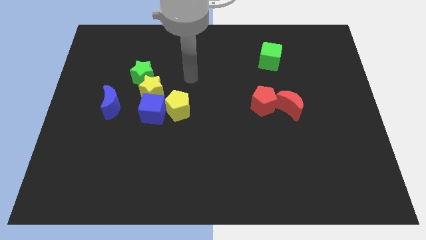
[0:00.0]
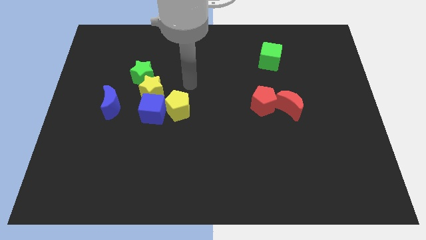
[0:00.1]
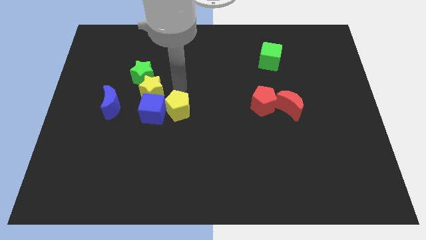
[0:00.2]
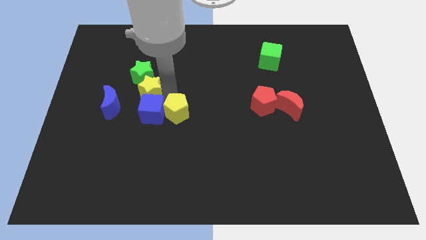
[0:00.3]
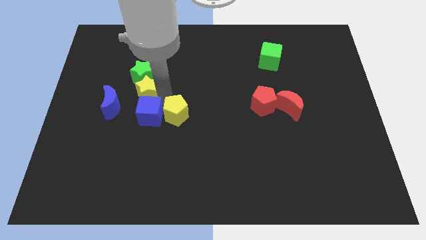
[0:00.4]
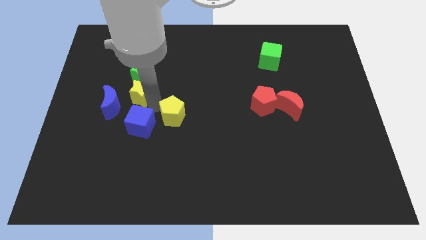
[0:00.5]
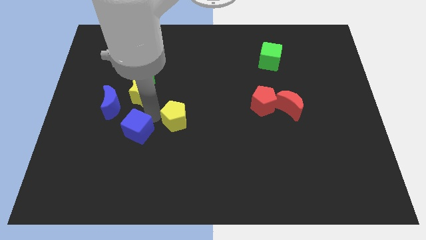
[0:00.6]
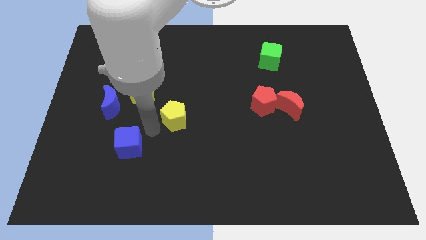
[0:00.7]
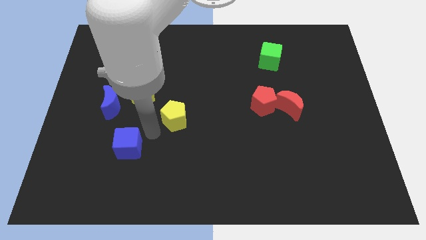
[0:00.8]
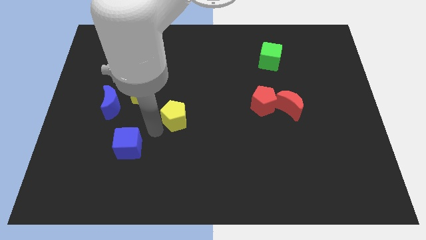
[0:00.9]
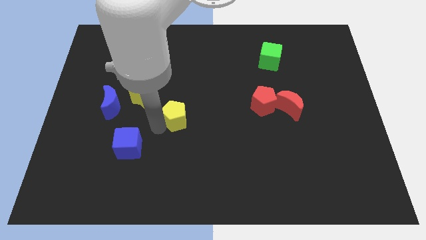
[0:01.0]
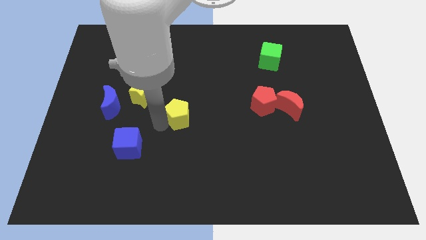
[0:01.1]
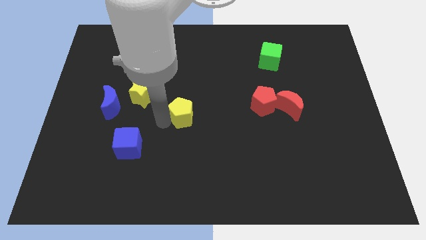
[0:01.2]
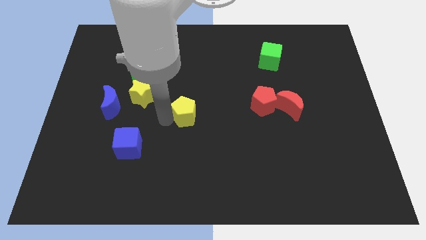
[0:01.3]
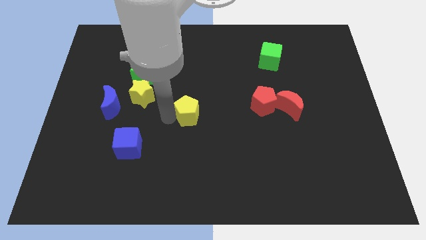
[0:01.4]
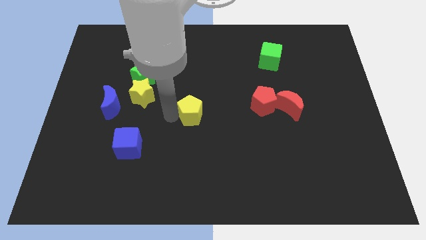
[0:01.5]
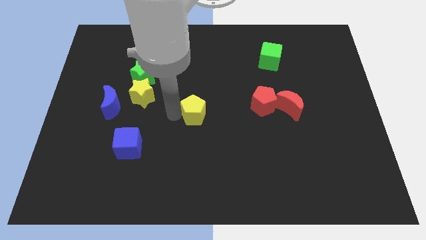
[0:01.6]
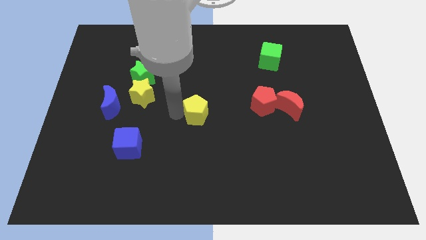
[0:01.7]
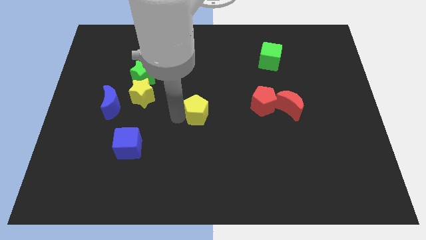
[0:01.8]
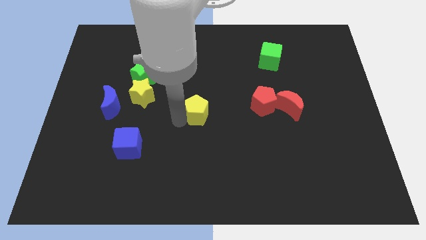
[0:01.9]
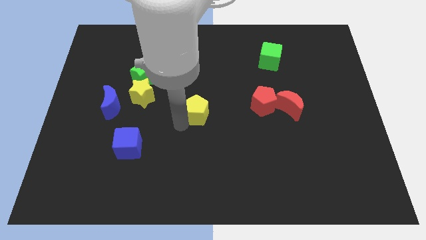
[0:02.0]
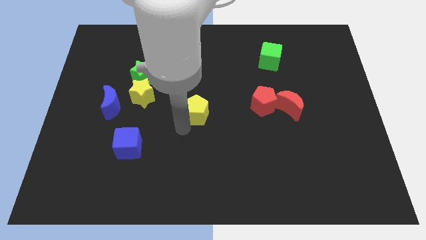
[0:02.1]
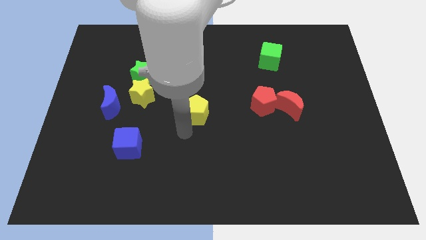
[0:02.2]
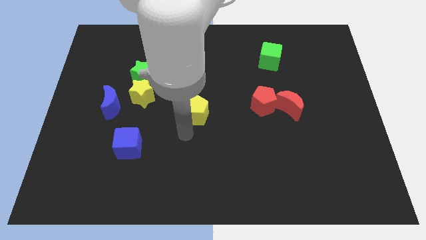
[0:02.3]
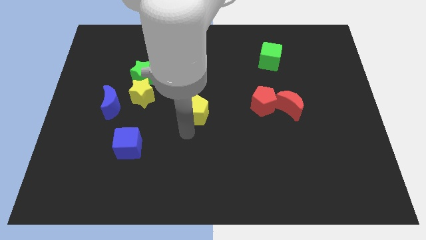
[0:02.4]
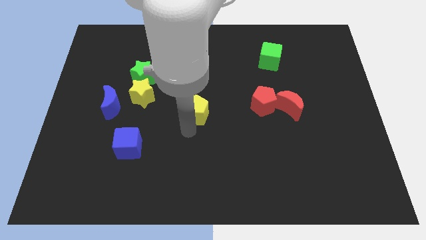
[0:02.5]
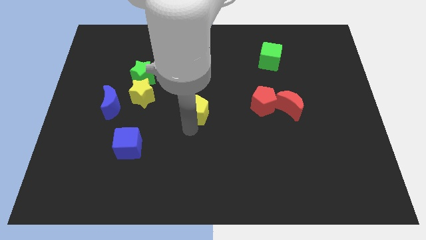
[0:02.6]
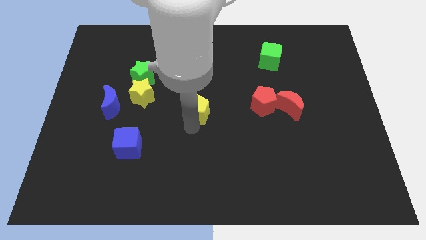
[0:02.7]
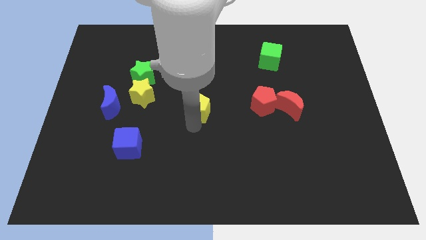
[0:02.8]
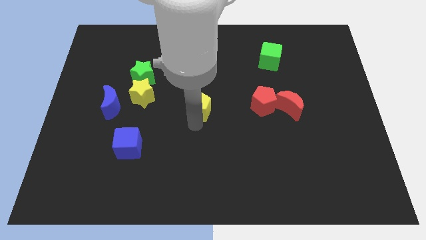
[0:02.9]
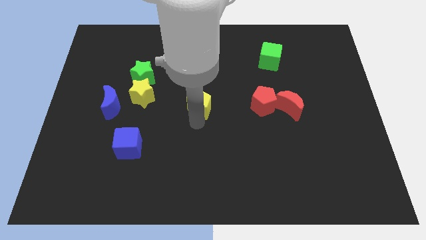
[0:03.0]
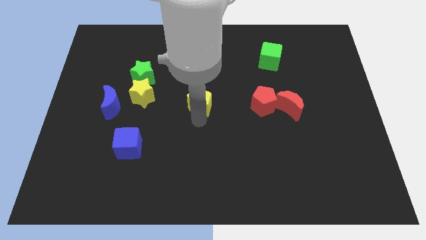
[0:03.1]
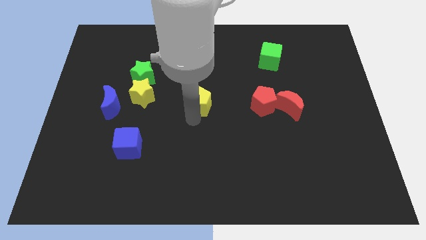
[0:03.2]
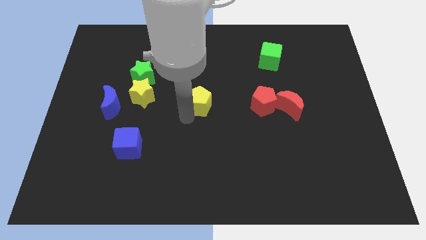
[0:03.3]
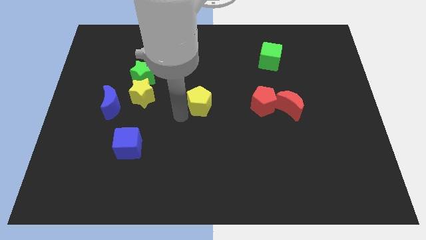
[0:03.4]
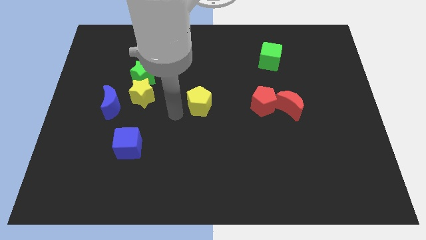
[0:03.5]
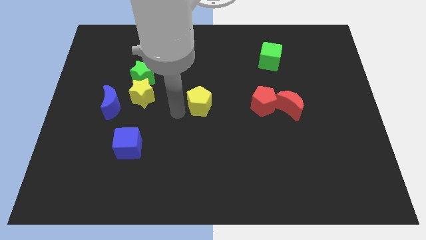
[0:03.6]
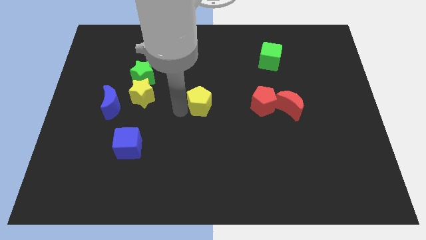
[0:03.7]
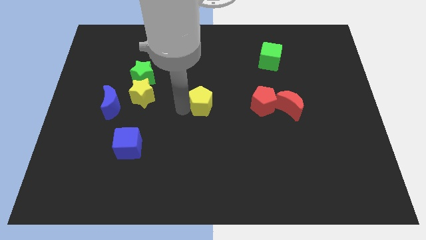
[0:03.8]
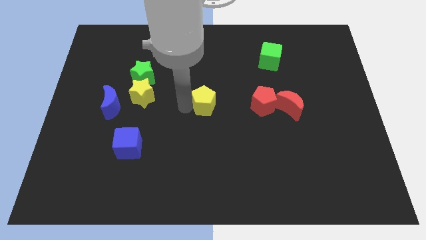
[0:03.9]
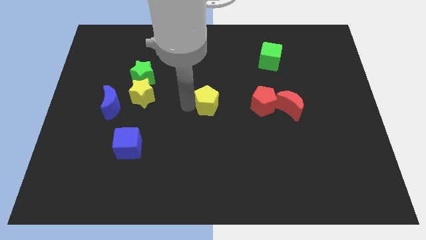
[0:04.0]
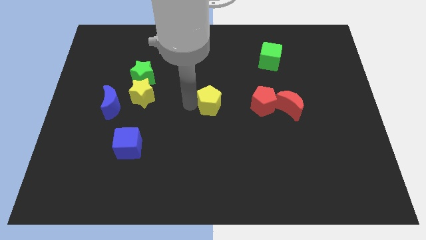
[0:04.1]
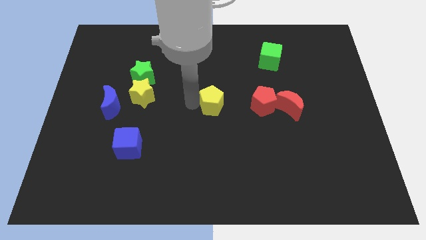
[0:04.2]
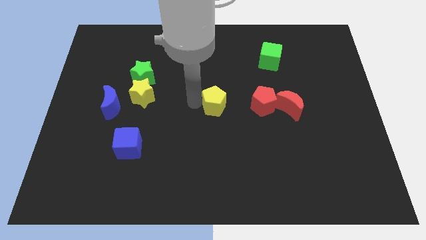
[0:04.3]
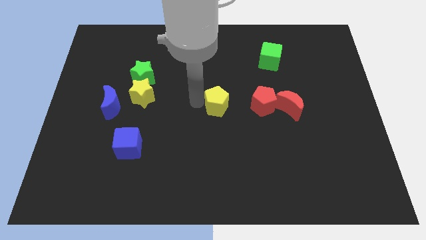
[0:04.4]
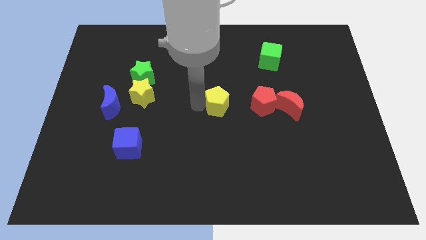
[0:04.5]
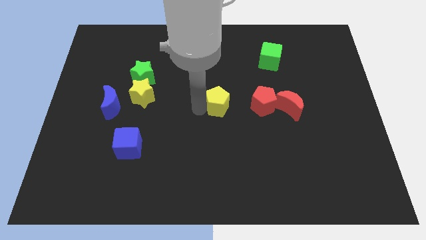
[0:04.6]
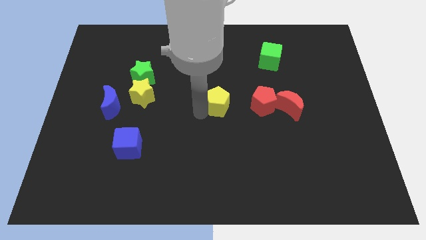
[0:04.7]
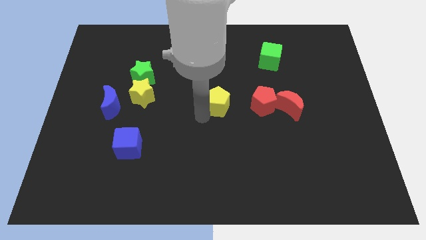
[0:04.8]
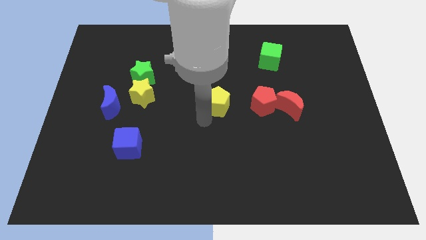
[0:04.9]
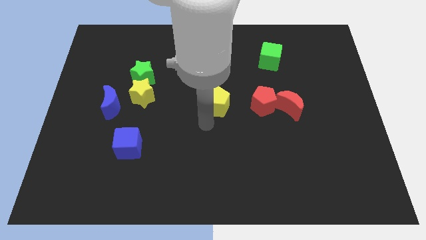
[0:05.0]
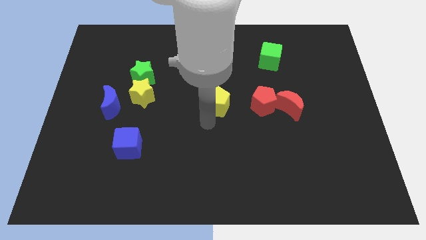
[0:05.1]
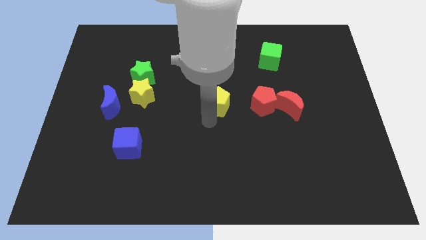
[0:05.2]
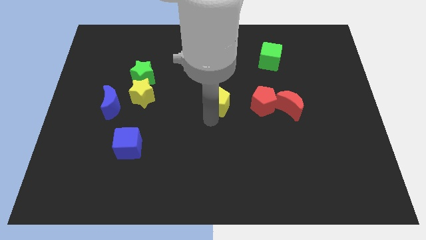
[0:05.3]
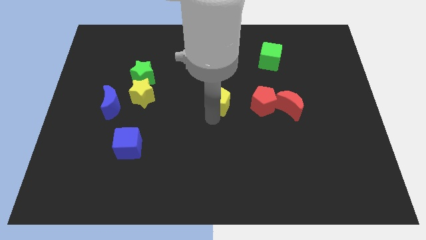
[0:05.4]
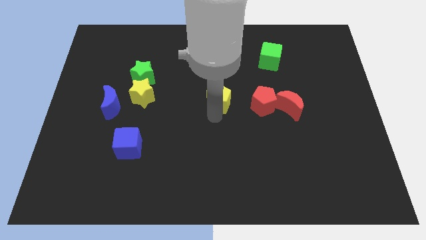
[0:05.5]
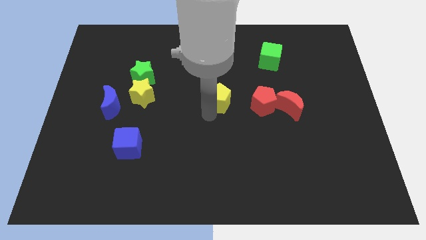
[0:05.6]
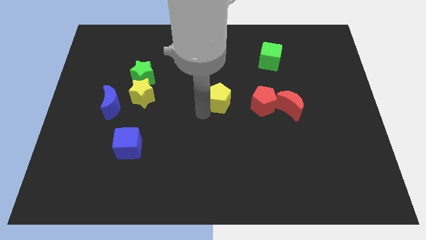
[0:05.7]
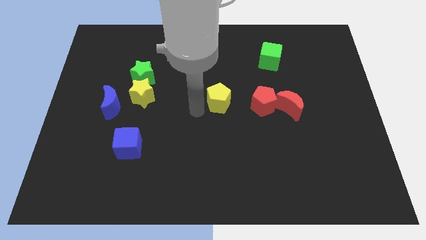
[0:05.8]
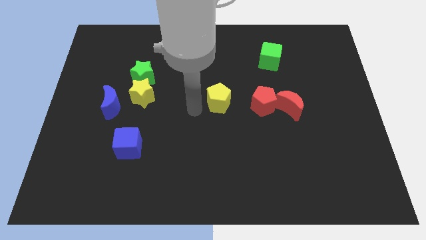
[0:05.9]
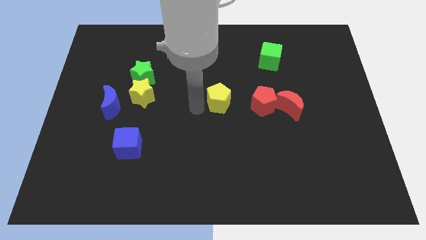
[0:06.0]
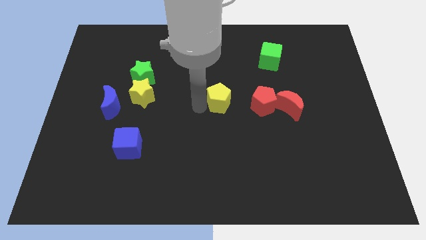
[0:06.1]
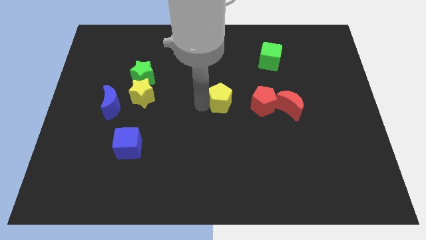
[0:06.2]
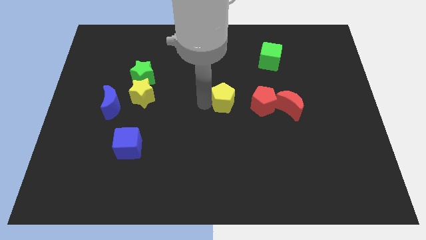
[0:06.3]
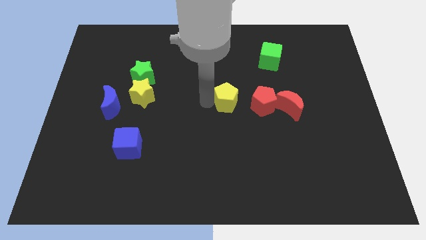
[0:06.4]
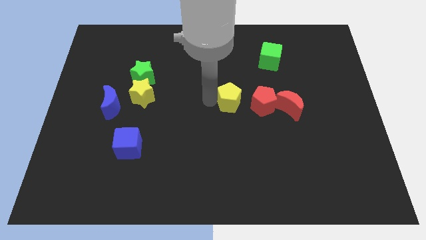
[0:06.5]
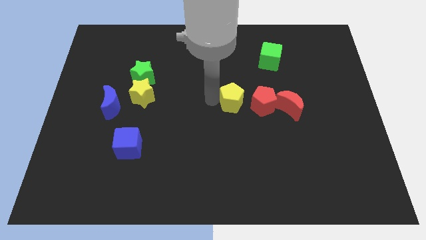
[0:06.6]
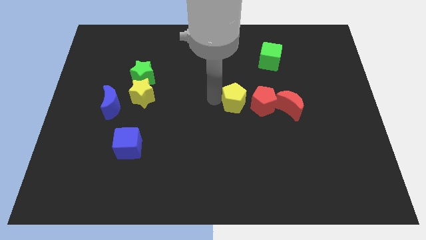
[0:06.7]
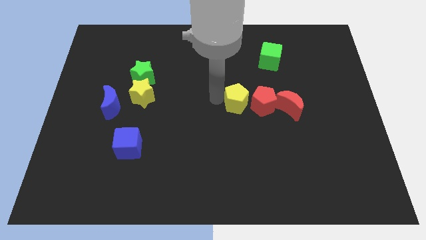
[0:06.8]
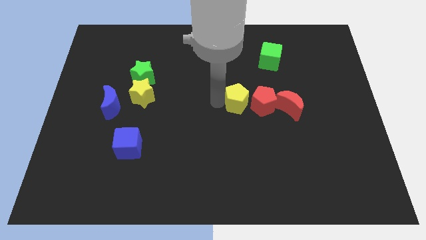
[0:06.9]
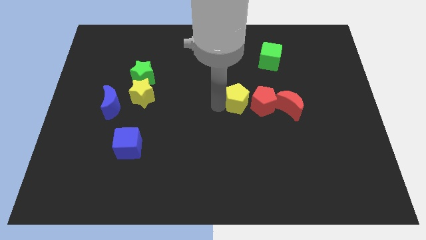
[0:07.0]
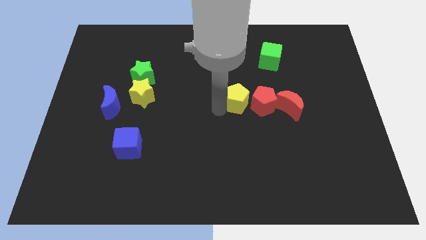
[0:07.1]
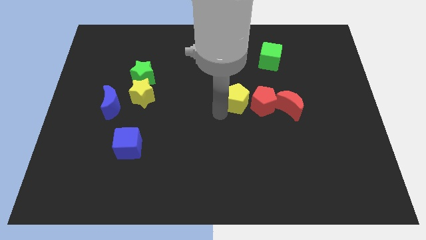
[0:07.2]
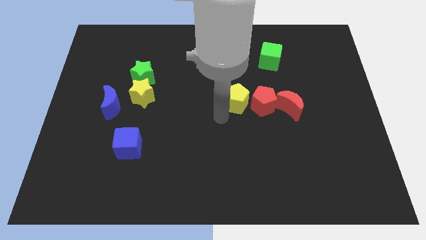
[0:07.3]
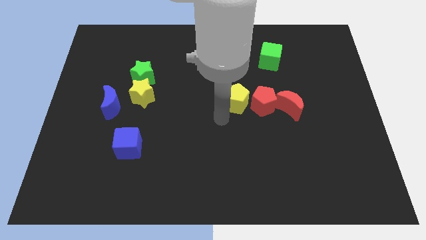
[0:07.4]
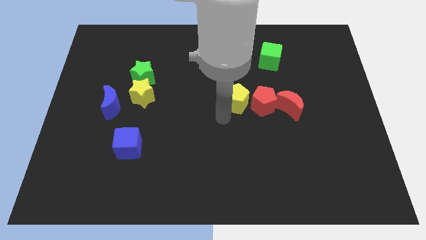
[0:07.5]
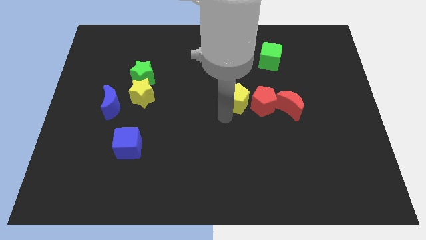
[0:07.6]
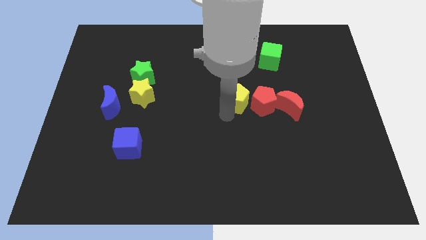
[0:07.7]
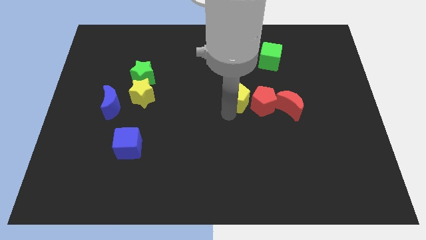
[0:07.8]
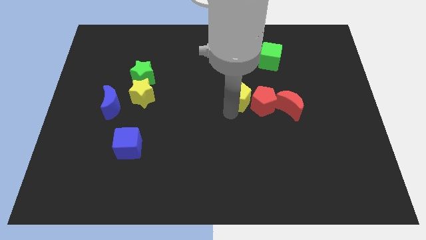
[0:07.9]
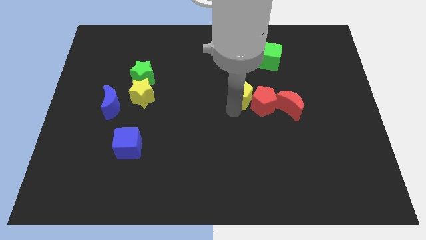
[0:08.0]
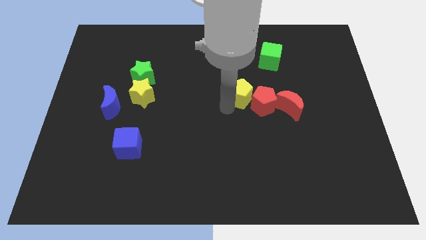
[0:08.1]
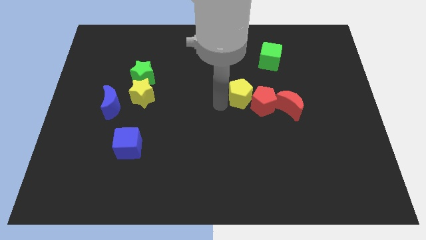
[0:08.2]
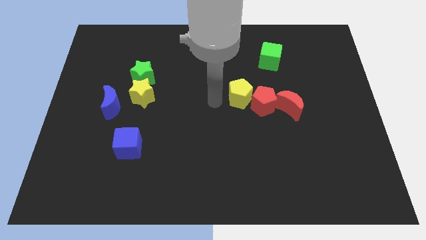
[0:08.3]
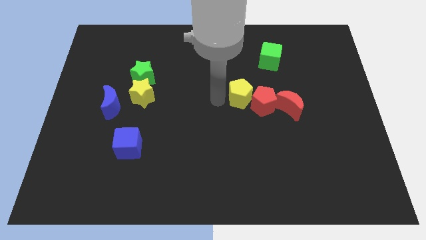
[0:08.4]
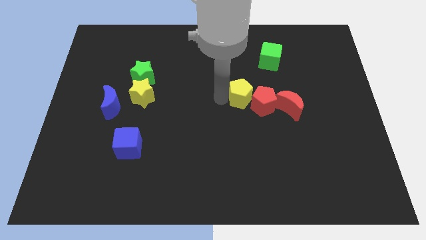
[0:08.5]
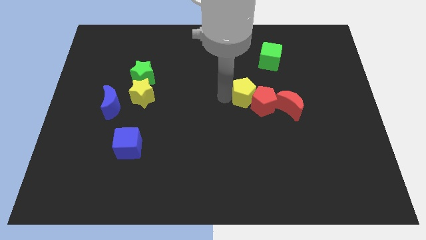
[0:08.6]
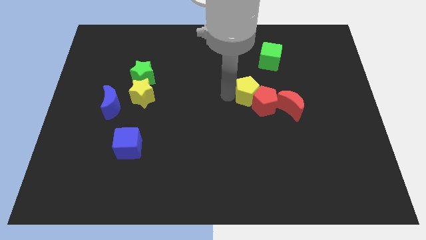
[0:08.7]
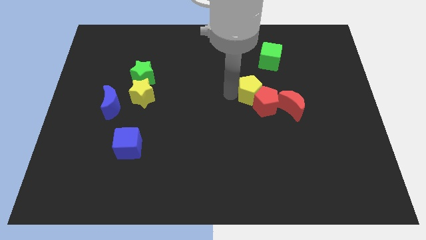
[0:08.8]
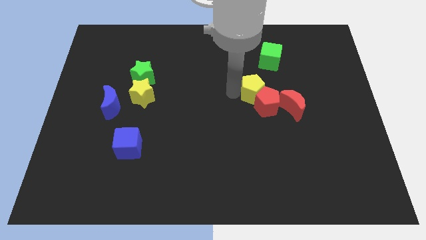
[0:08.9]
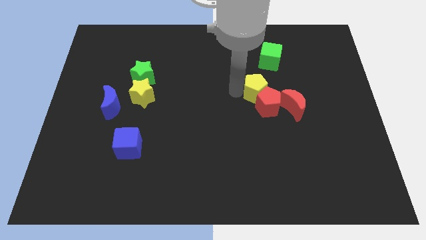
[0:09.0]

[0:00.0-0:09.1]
put the yellow pentagon to the bottom of the green cube
